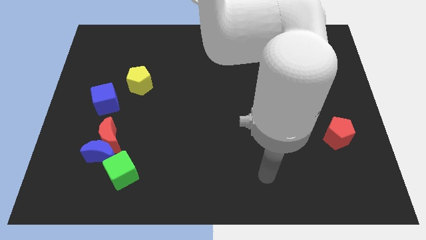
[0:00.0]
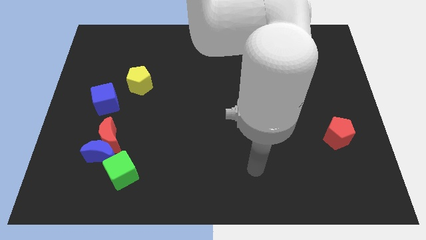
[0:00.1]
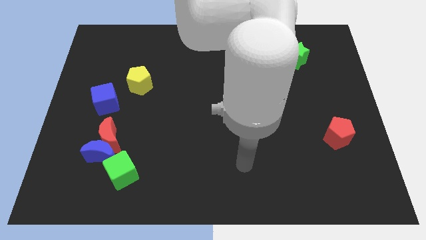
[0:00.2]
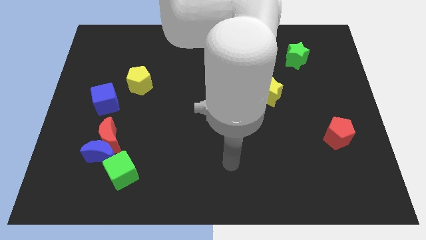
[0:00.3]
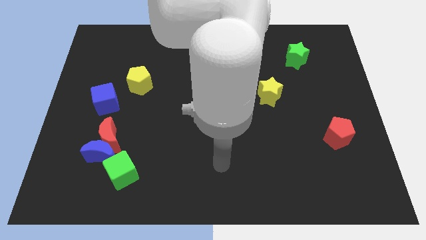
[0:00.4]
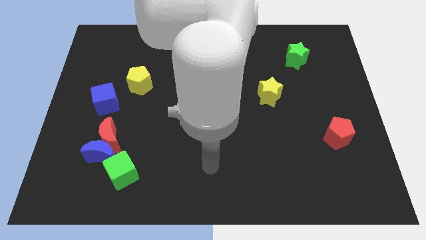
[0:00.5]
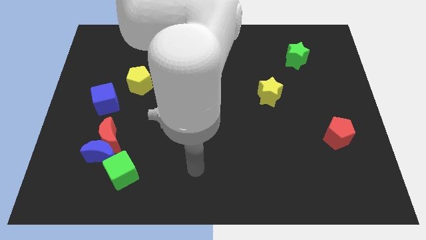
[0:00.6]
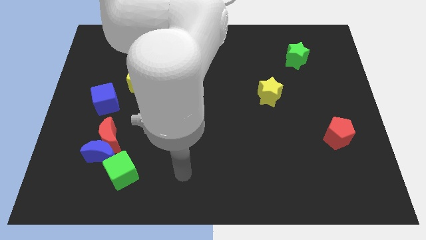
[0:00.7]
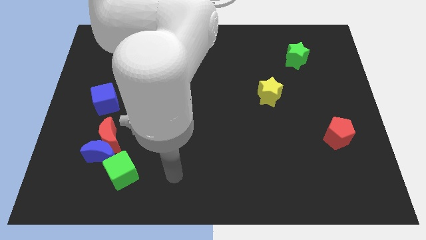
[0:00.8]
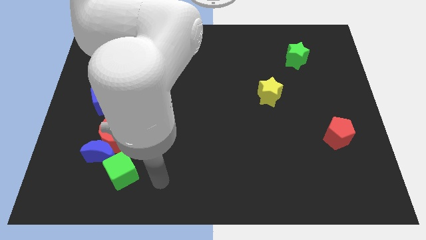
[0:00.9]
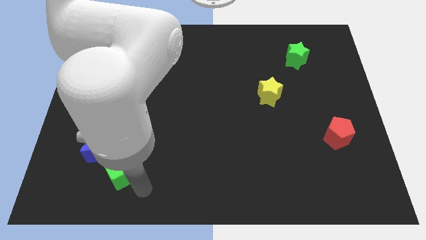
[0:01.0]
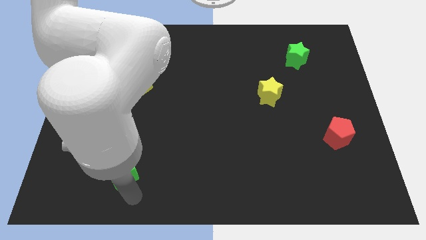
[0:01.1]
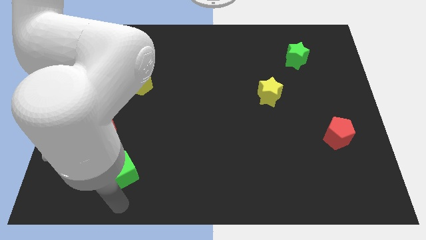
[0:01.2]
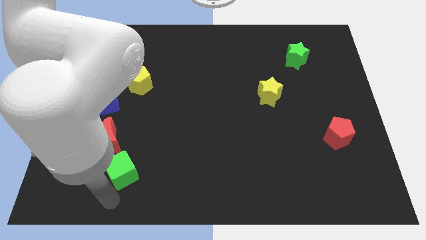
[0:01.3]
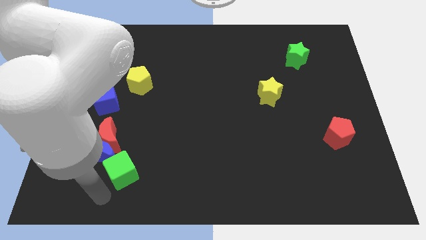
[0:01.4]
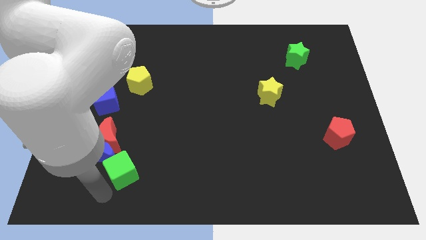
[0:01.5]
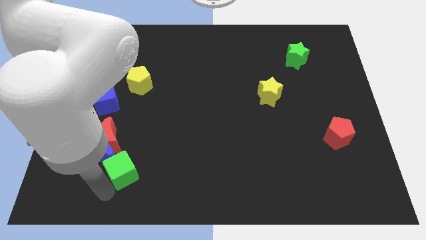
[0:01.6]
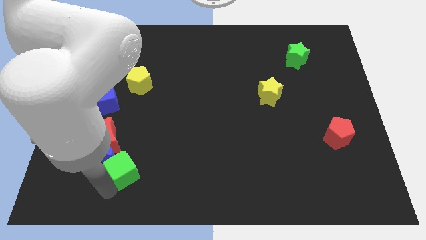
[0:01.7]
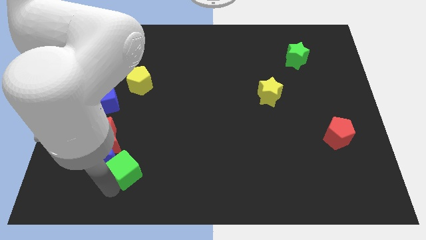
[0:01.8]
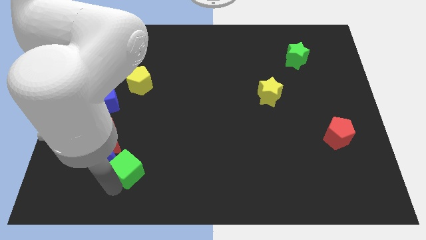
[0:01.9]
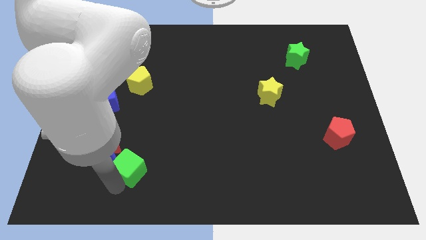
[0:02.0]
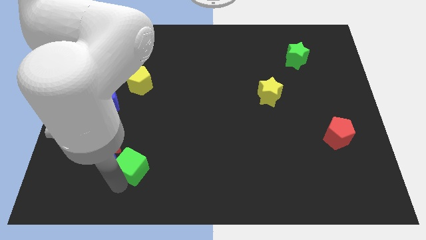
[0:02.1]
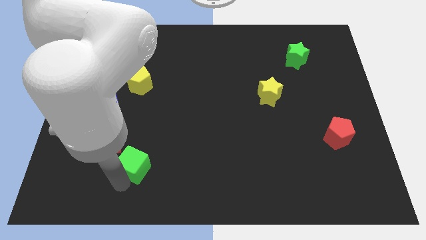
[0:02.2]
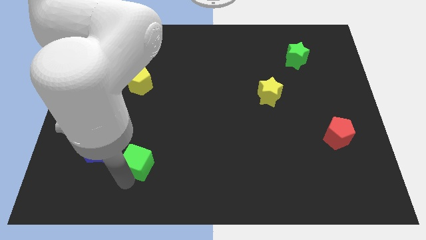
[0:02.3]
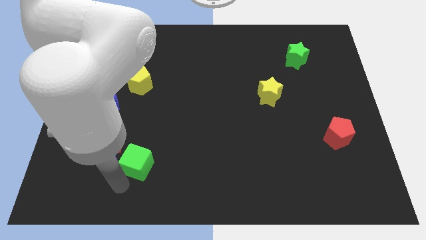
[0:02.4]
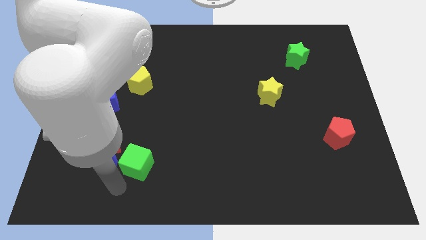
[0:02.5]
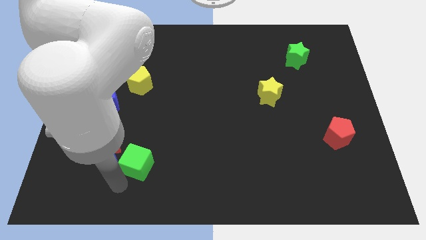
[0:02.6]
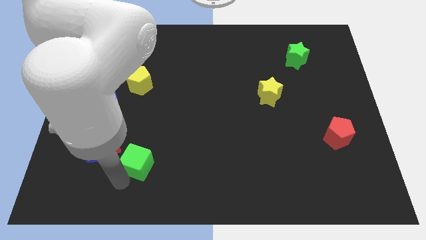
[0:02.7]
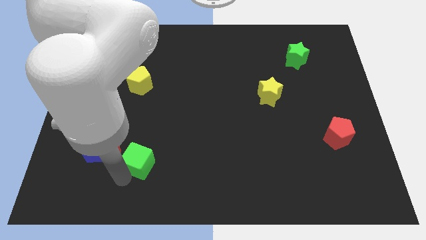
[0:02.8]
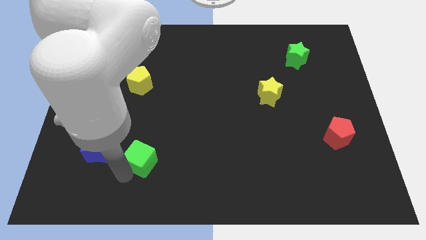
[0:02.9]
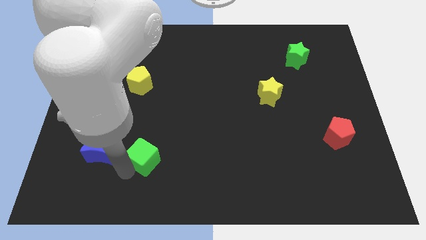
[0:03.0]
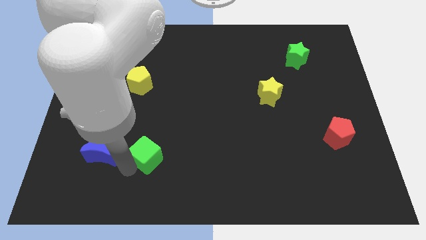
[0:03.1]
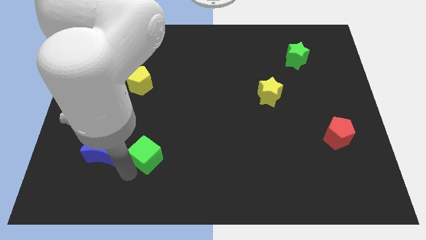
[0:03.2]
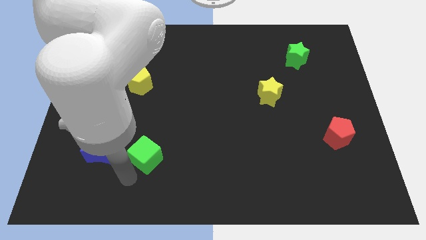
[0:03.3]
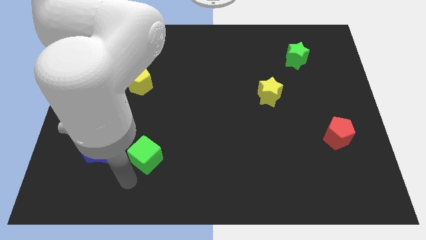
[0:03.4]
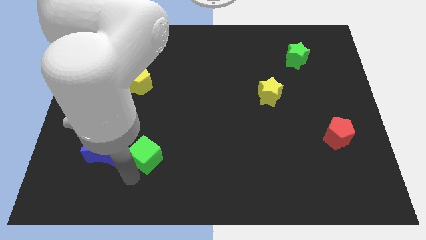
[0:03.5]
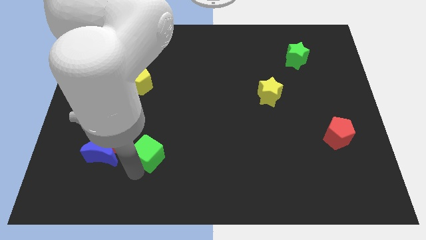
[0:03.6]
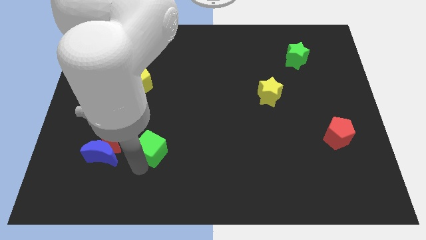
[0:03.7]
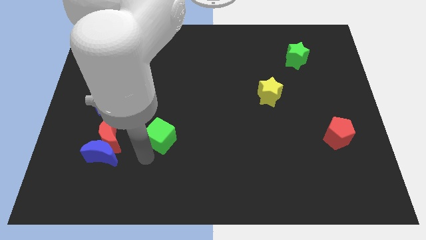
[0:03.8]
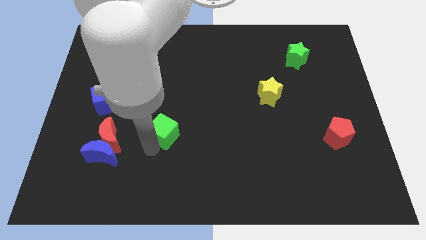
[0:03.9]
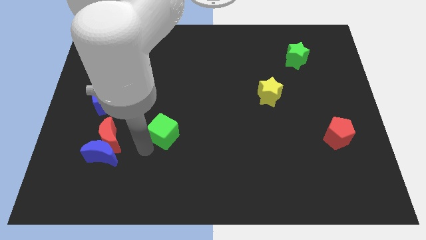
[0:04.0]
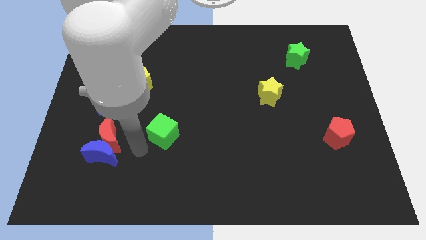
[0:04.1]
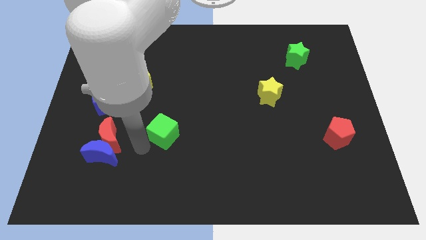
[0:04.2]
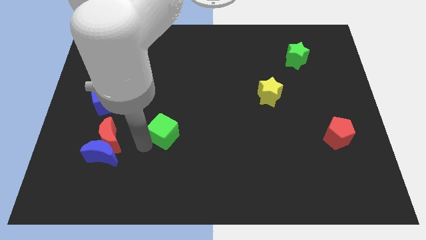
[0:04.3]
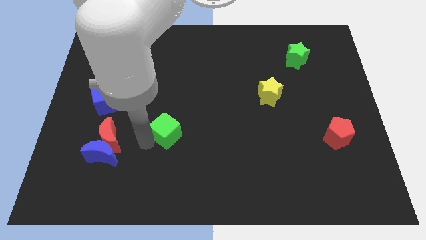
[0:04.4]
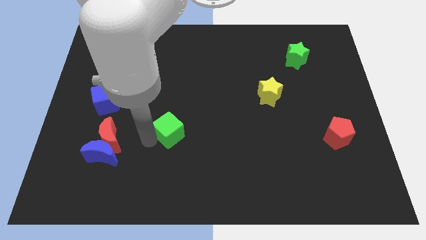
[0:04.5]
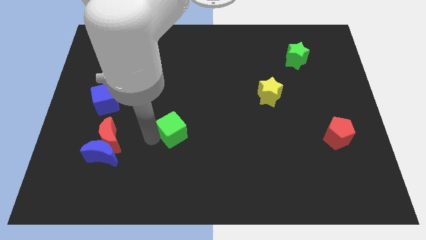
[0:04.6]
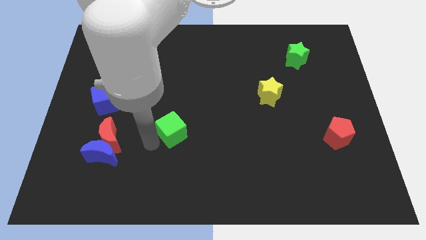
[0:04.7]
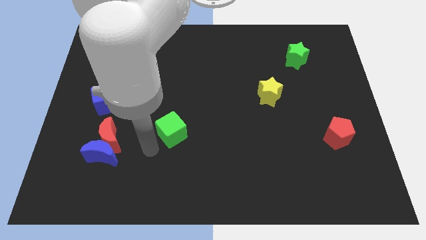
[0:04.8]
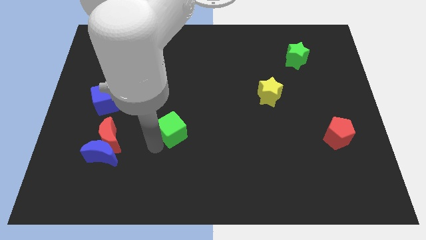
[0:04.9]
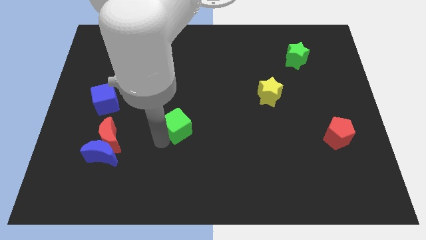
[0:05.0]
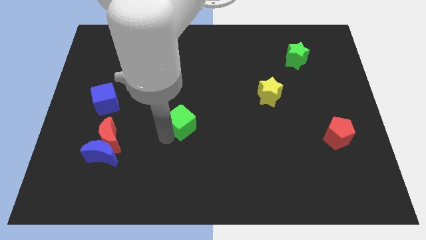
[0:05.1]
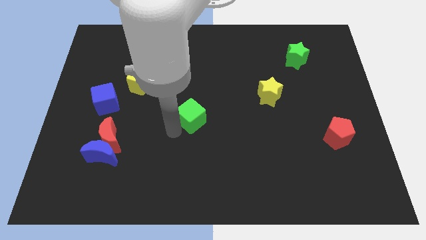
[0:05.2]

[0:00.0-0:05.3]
move the green cube up and to the right diagonally

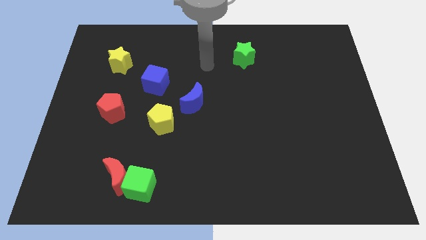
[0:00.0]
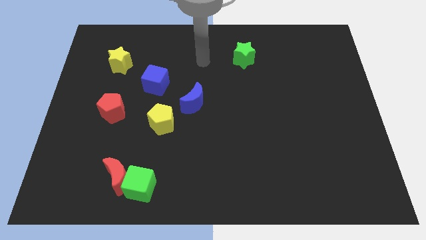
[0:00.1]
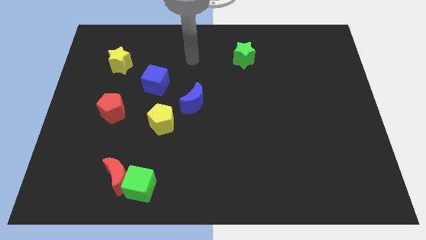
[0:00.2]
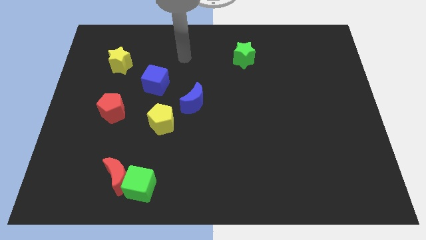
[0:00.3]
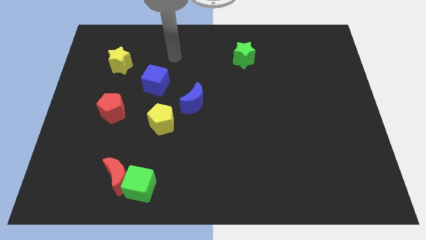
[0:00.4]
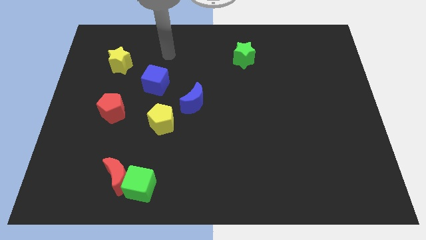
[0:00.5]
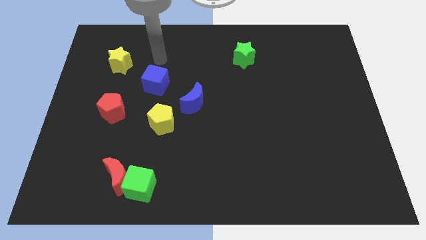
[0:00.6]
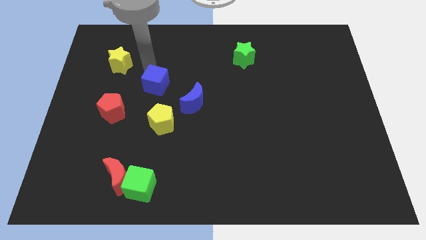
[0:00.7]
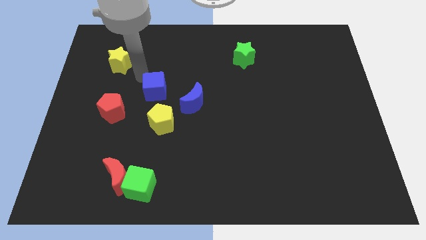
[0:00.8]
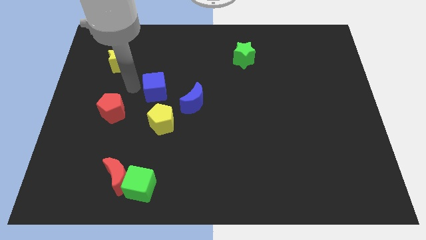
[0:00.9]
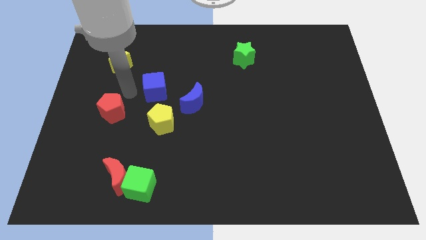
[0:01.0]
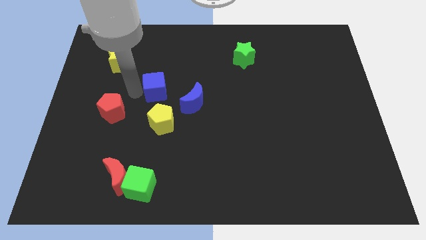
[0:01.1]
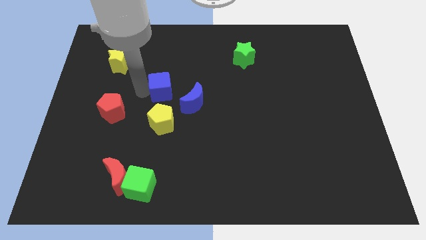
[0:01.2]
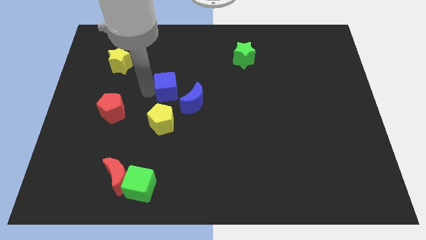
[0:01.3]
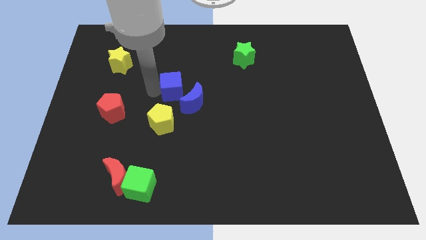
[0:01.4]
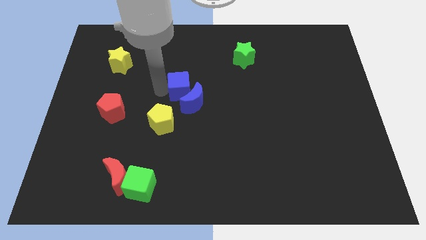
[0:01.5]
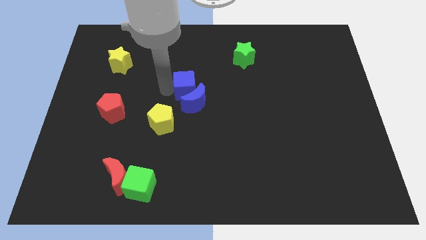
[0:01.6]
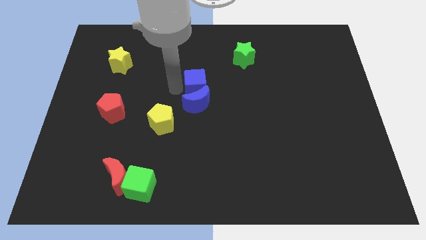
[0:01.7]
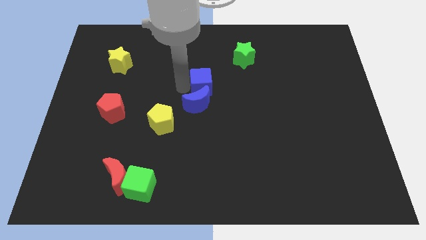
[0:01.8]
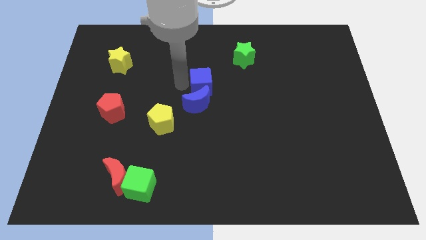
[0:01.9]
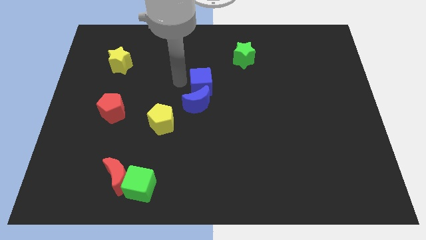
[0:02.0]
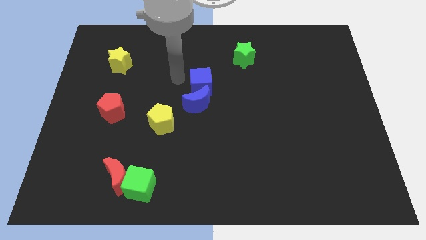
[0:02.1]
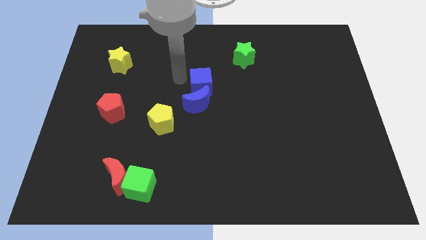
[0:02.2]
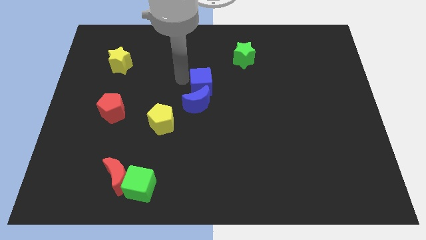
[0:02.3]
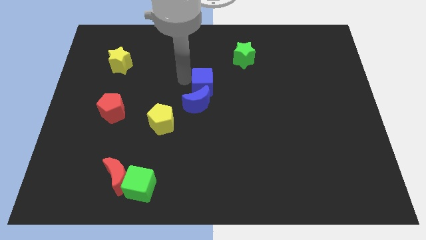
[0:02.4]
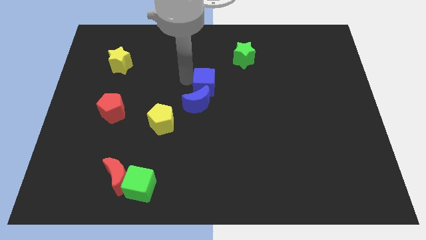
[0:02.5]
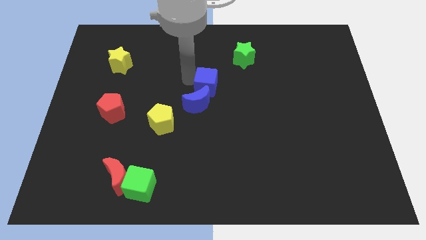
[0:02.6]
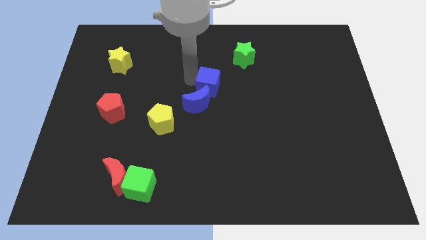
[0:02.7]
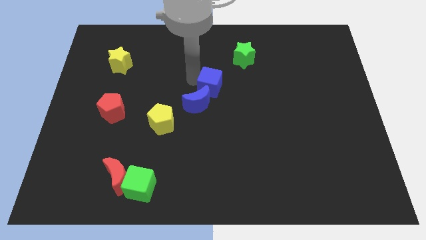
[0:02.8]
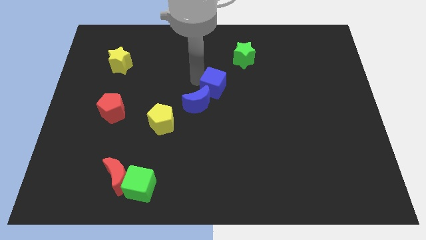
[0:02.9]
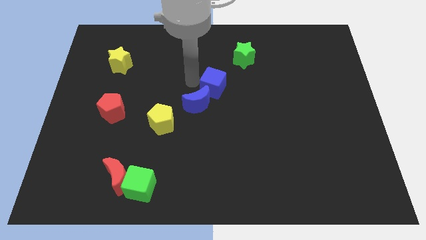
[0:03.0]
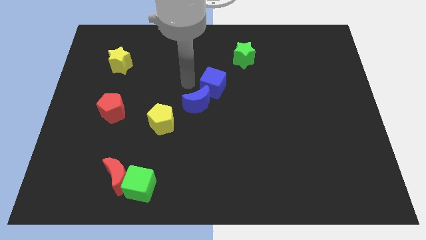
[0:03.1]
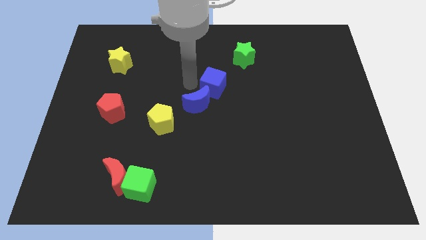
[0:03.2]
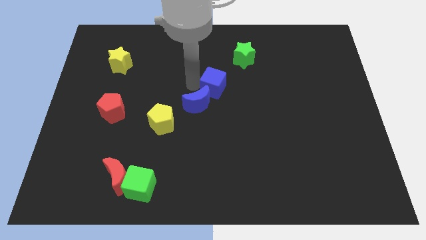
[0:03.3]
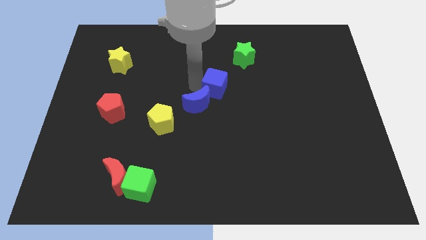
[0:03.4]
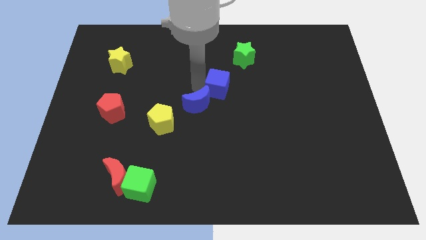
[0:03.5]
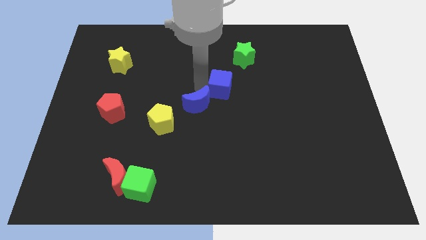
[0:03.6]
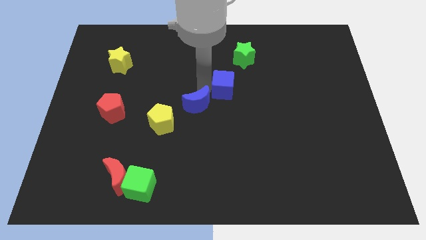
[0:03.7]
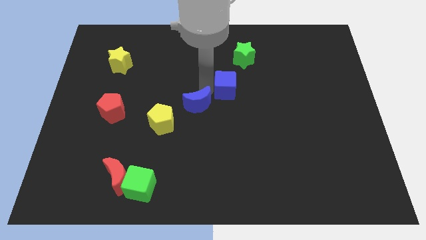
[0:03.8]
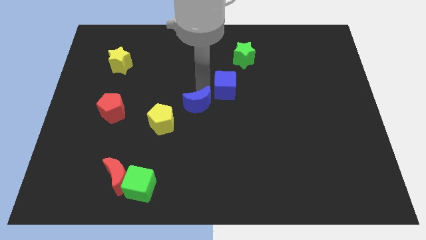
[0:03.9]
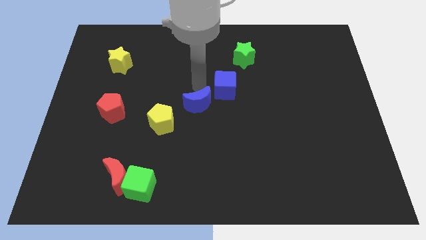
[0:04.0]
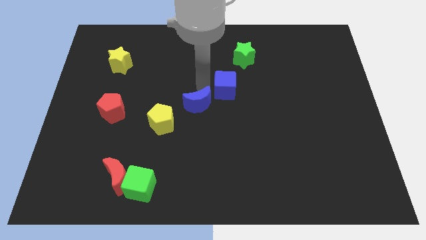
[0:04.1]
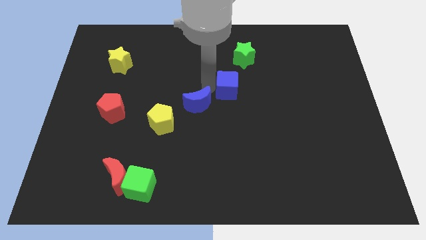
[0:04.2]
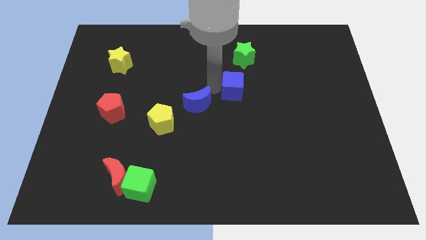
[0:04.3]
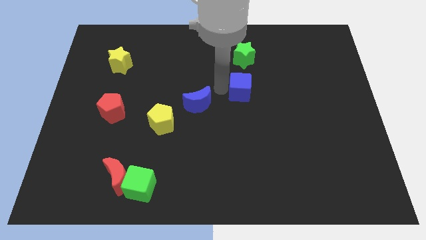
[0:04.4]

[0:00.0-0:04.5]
push the blue cube to the right
